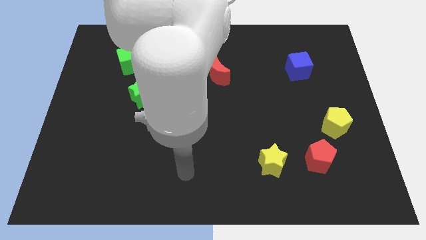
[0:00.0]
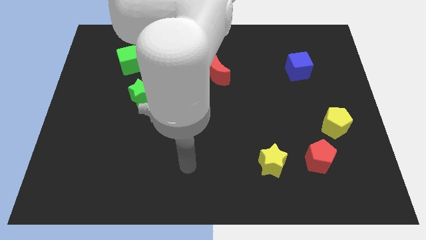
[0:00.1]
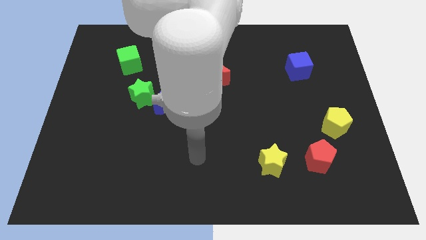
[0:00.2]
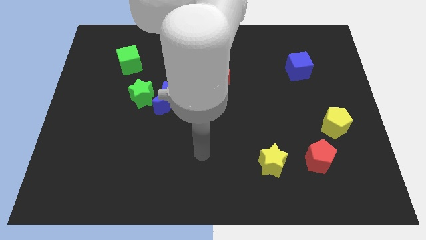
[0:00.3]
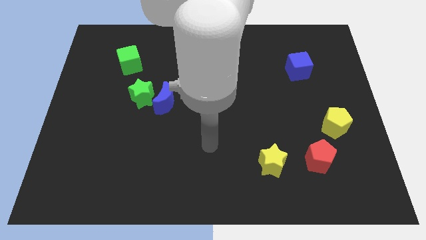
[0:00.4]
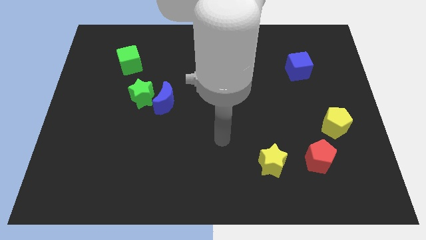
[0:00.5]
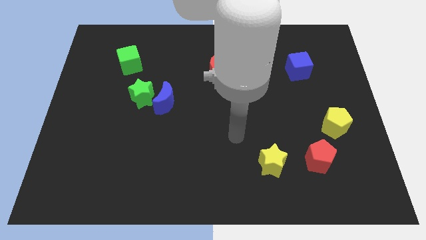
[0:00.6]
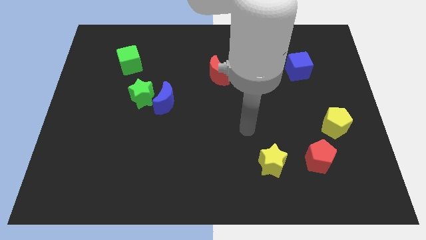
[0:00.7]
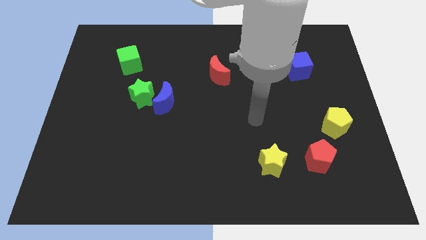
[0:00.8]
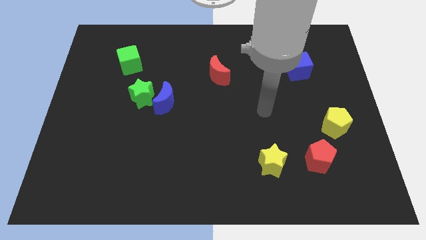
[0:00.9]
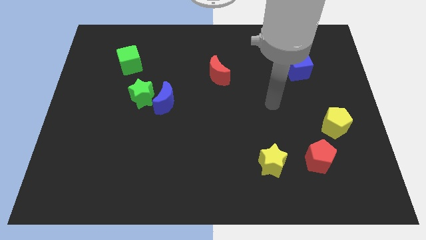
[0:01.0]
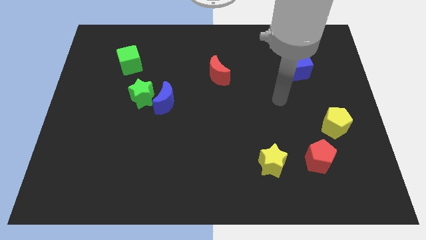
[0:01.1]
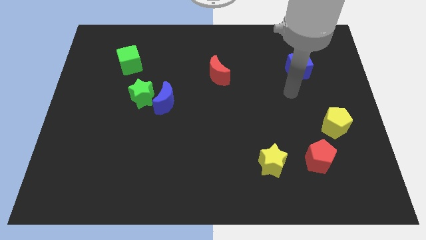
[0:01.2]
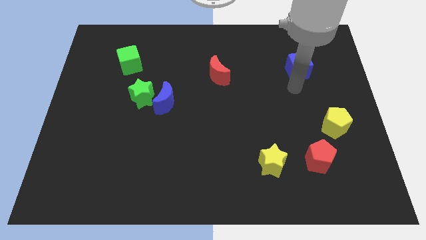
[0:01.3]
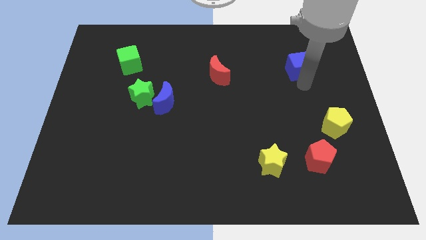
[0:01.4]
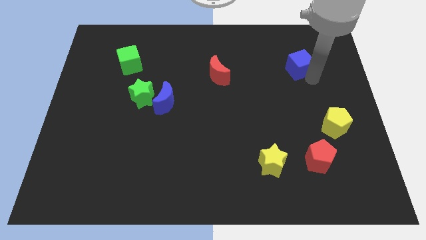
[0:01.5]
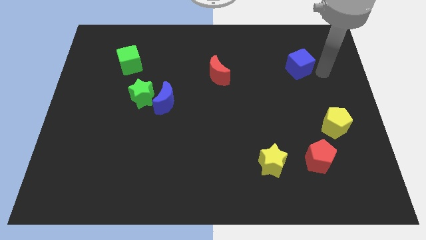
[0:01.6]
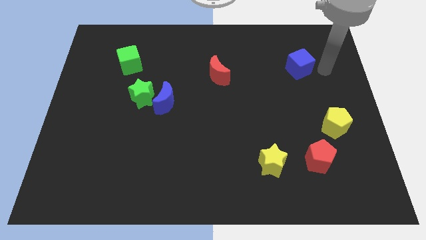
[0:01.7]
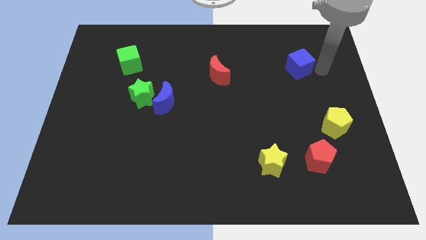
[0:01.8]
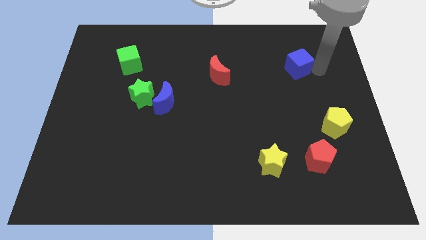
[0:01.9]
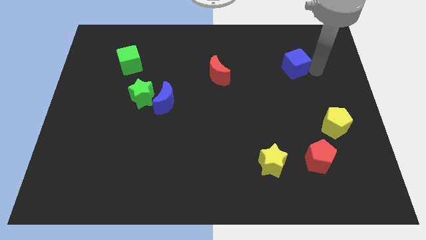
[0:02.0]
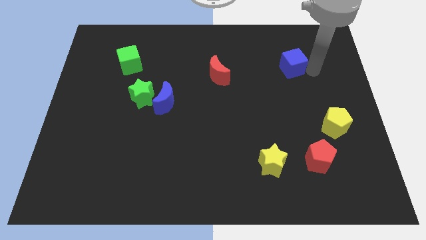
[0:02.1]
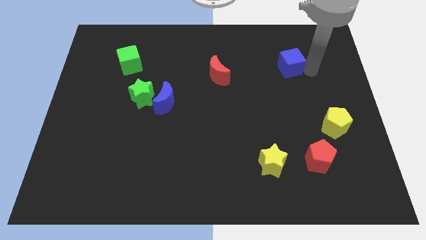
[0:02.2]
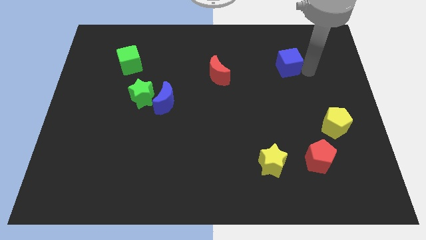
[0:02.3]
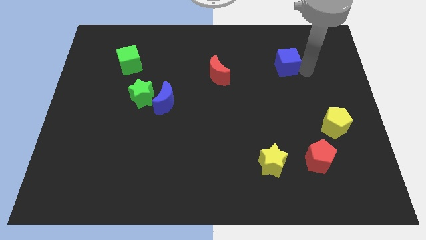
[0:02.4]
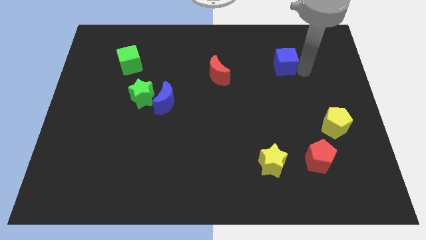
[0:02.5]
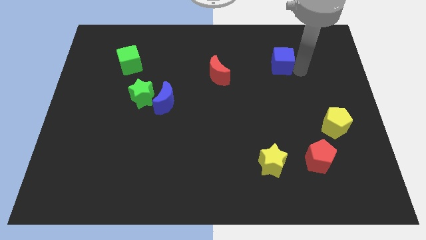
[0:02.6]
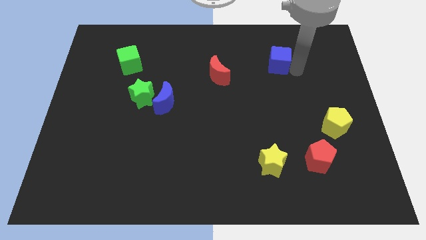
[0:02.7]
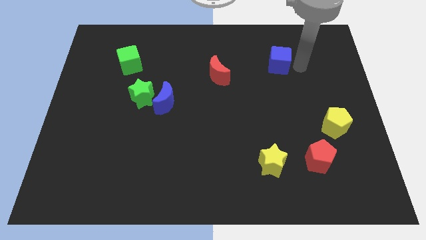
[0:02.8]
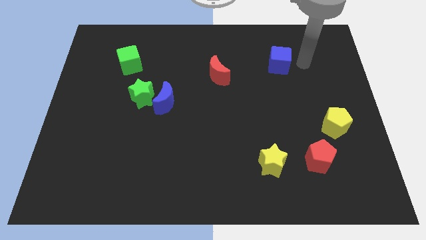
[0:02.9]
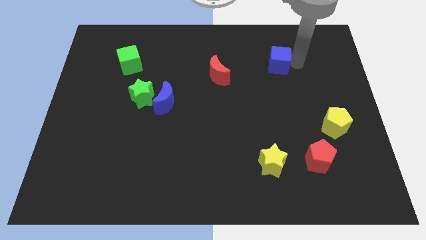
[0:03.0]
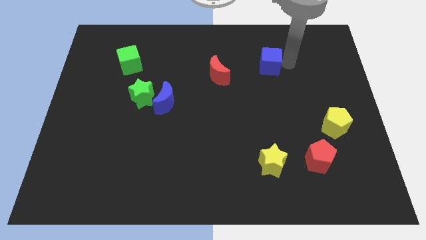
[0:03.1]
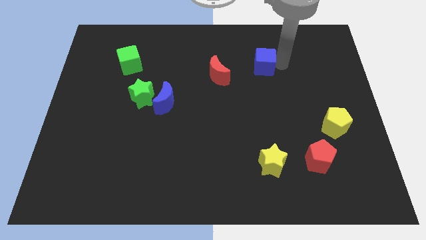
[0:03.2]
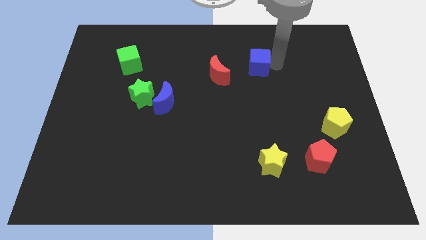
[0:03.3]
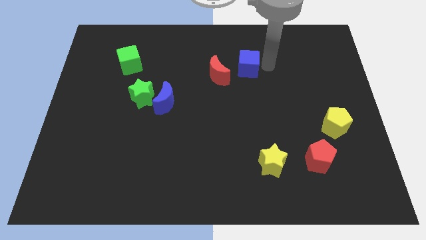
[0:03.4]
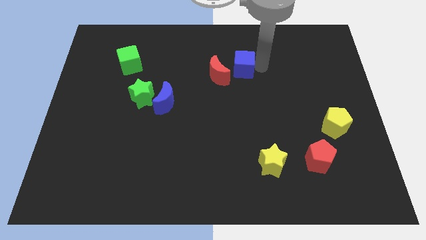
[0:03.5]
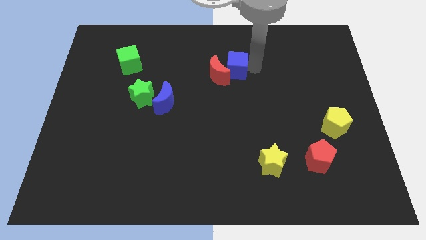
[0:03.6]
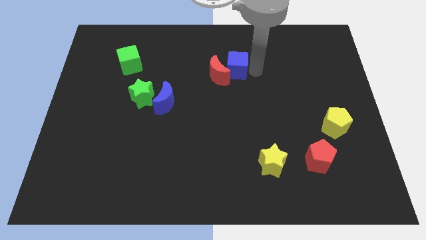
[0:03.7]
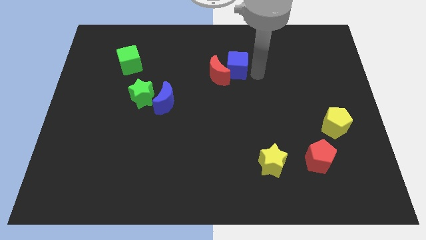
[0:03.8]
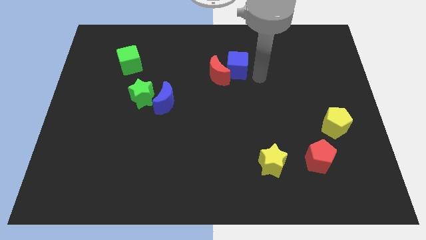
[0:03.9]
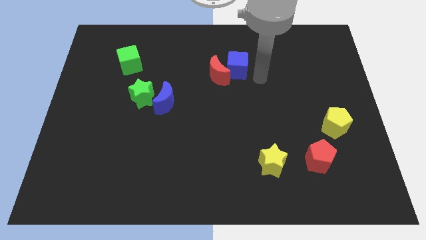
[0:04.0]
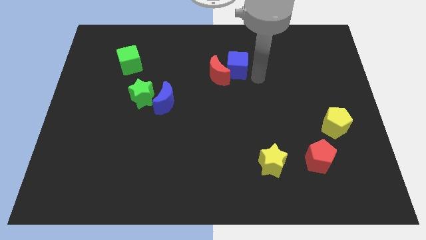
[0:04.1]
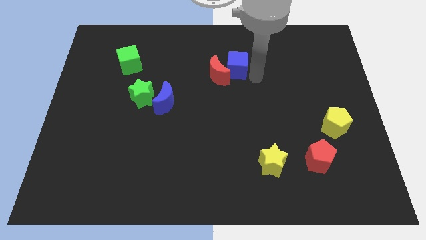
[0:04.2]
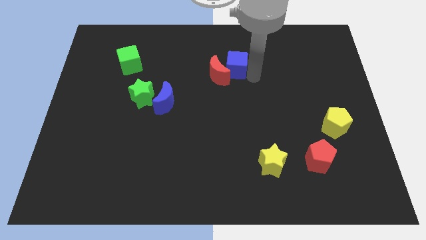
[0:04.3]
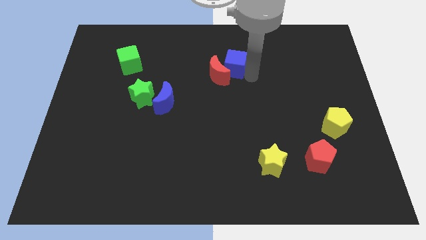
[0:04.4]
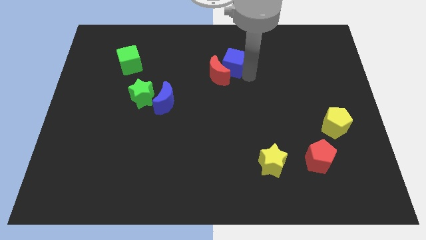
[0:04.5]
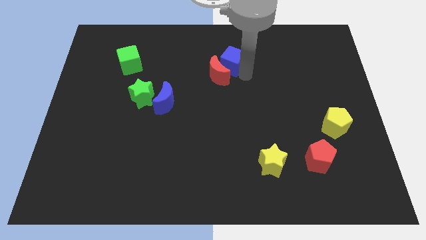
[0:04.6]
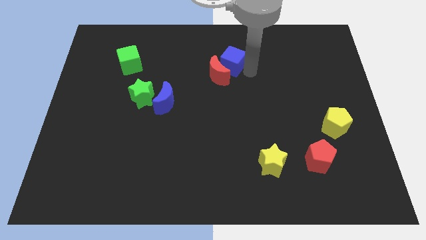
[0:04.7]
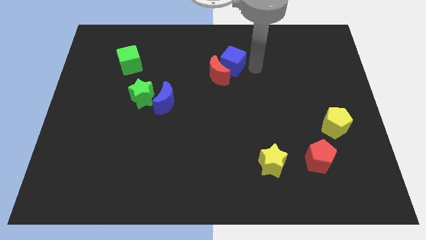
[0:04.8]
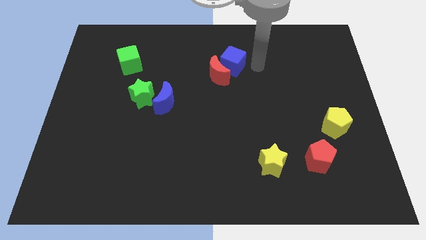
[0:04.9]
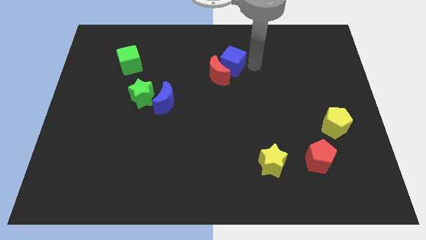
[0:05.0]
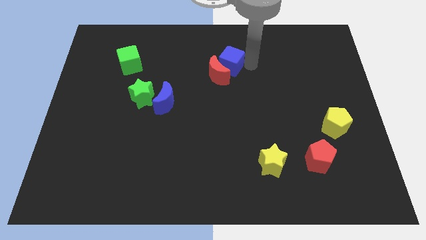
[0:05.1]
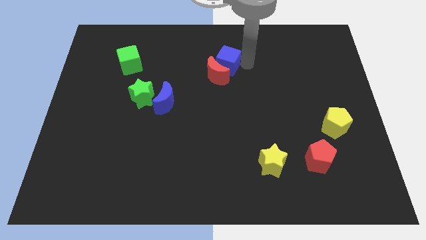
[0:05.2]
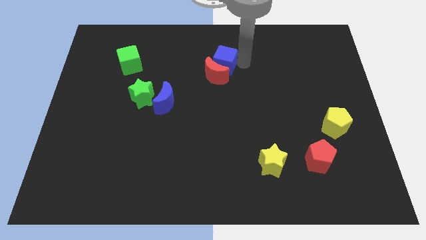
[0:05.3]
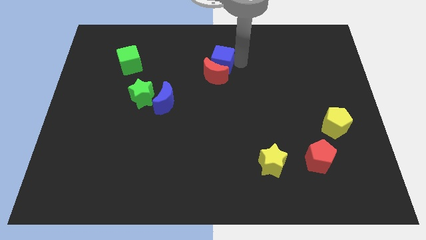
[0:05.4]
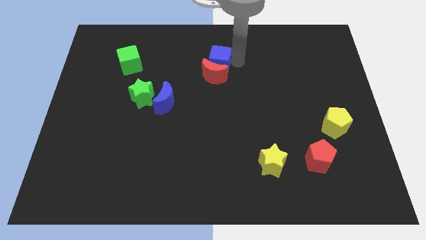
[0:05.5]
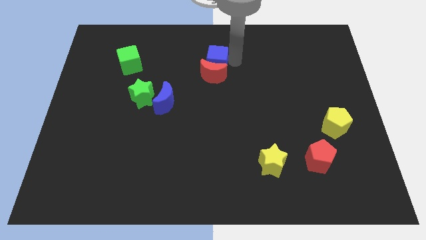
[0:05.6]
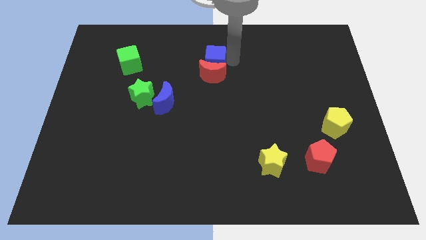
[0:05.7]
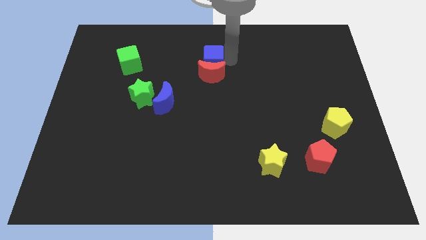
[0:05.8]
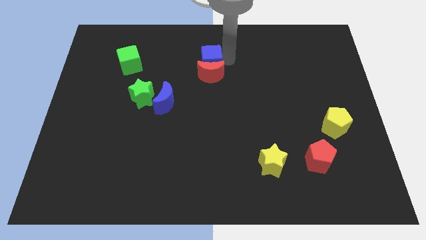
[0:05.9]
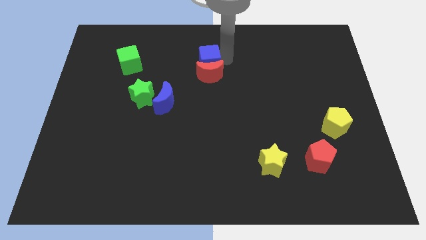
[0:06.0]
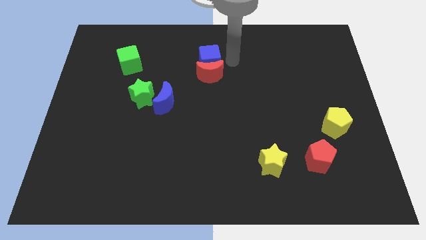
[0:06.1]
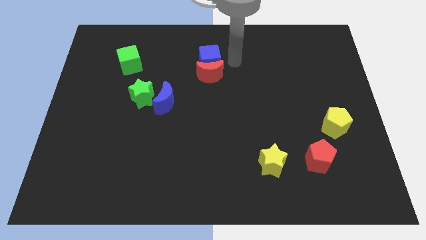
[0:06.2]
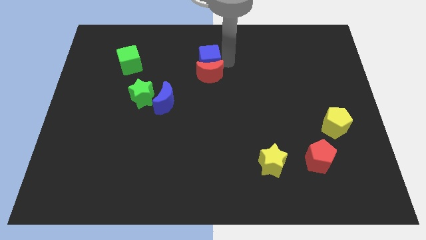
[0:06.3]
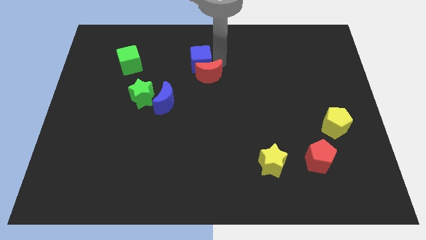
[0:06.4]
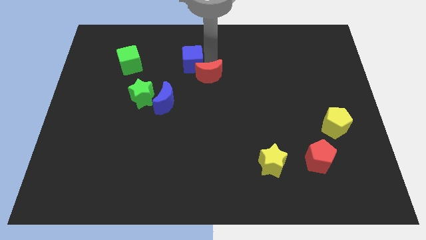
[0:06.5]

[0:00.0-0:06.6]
slide the blue cube to the right side of the green cube
